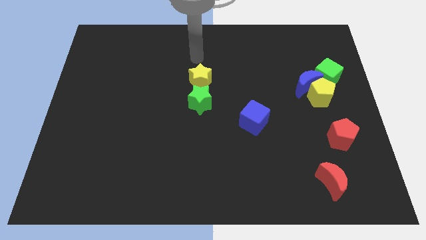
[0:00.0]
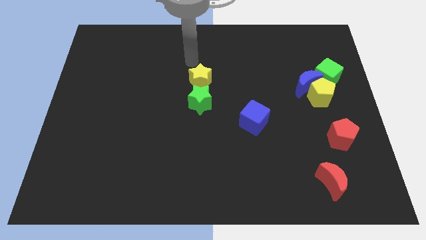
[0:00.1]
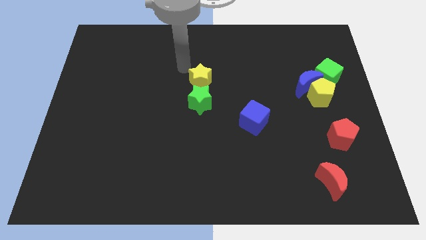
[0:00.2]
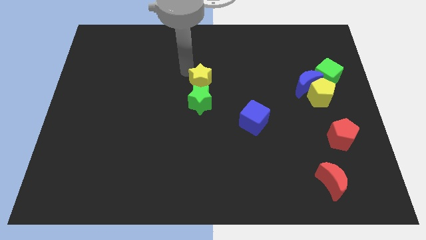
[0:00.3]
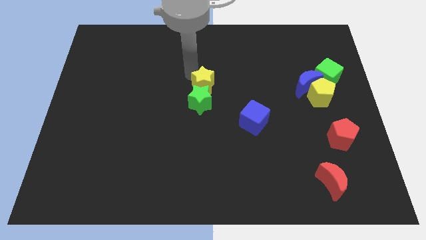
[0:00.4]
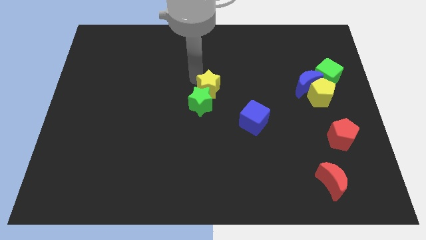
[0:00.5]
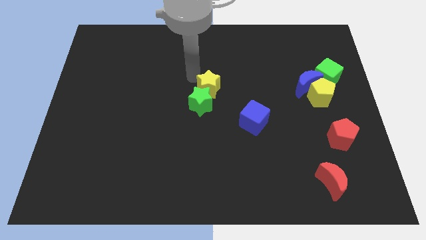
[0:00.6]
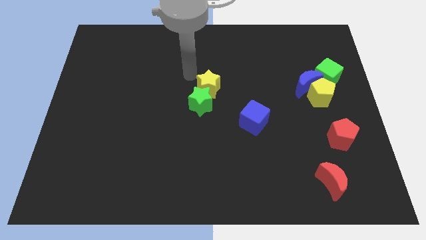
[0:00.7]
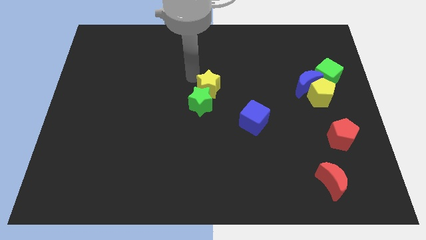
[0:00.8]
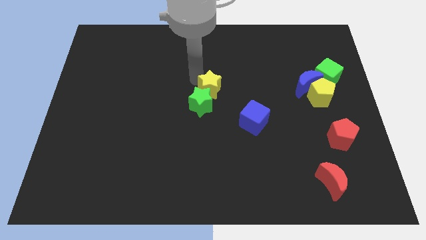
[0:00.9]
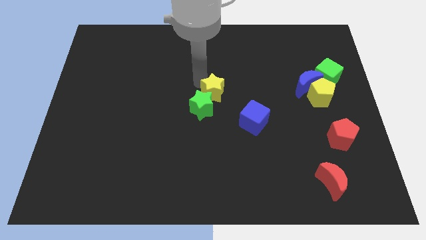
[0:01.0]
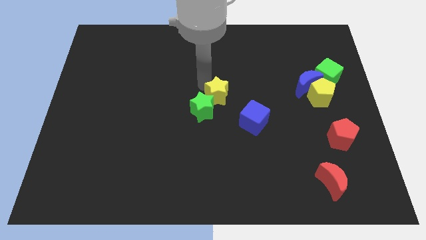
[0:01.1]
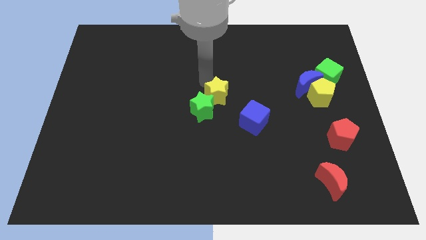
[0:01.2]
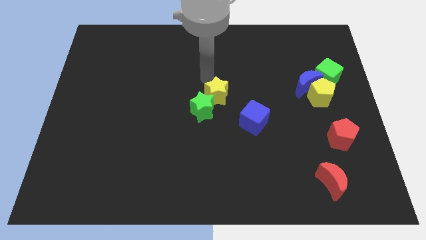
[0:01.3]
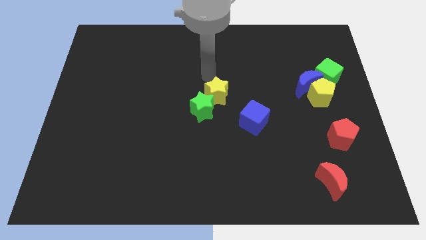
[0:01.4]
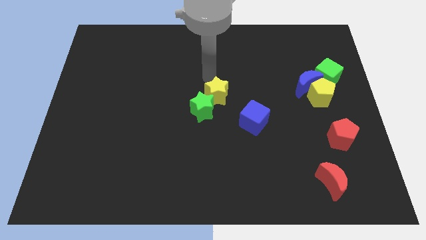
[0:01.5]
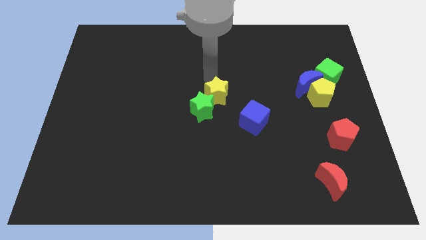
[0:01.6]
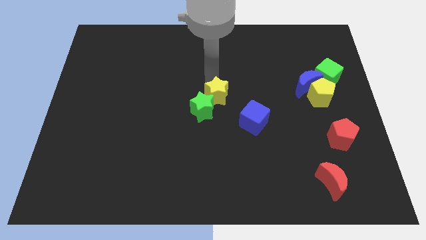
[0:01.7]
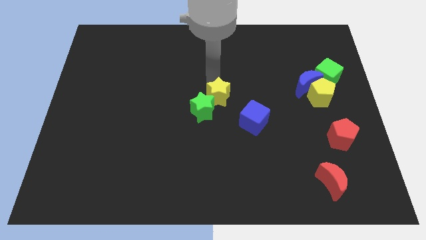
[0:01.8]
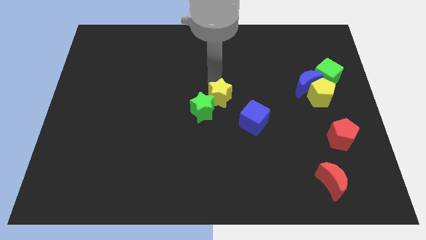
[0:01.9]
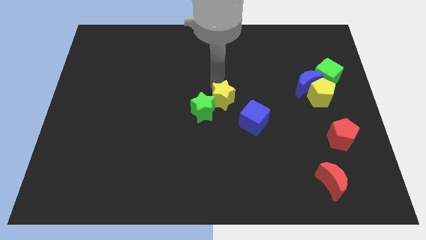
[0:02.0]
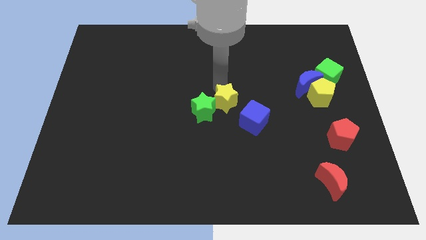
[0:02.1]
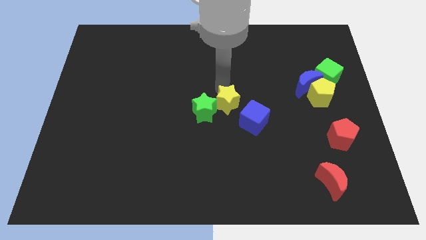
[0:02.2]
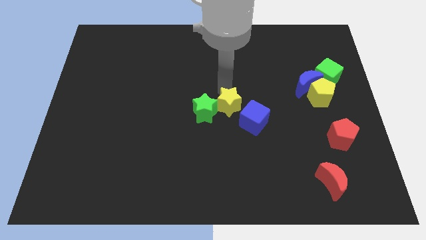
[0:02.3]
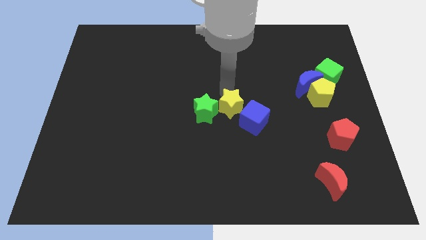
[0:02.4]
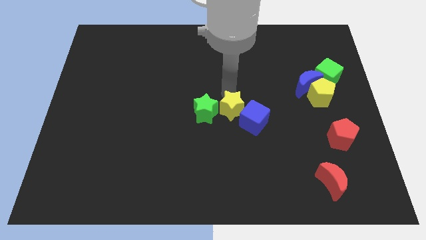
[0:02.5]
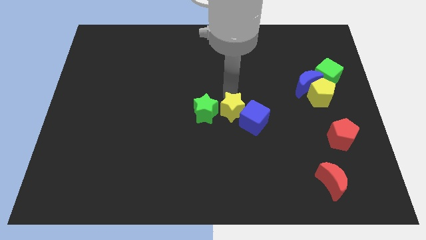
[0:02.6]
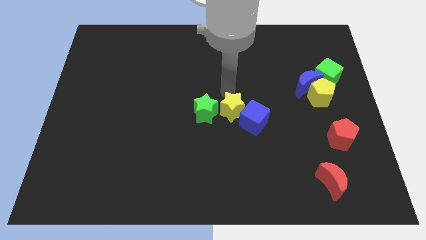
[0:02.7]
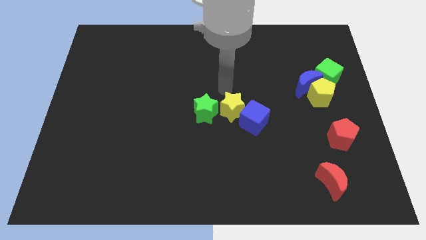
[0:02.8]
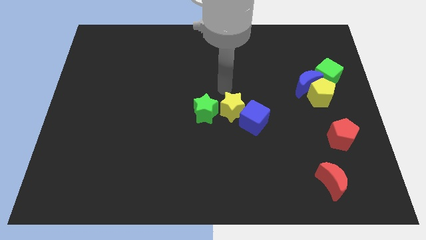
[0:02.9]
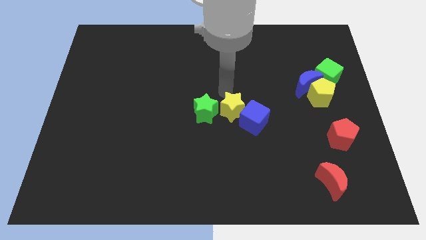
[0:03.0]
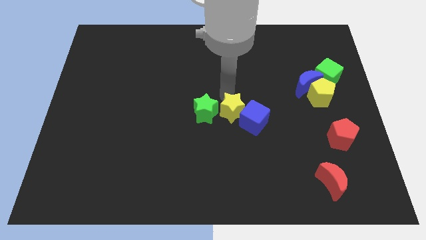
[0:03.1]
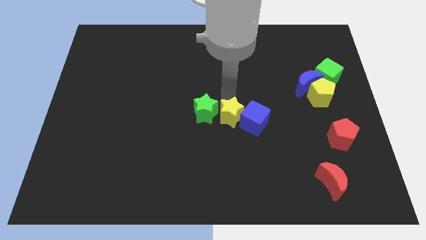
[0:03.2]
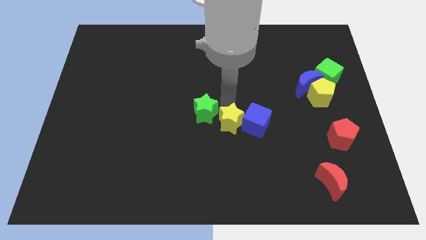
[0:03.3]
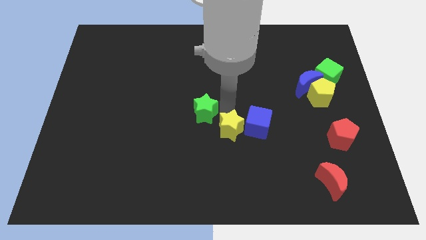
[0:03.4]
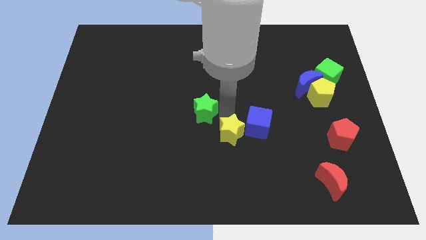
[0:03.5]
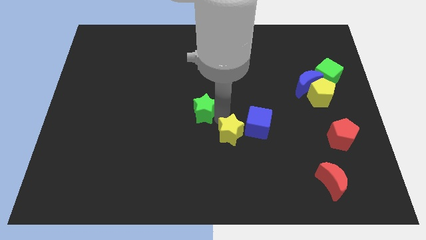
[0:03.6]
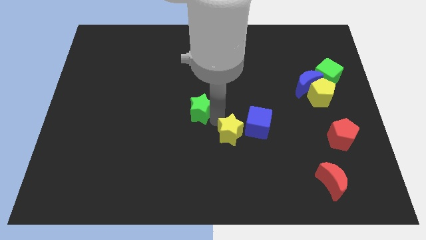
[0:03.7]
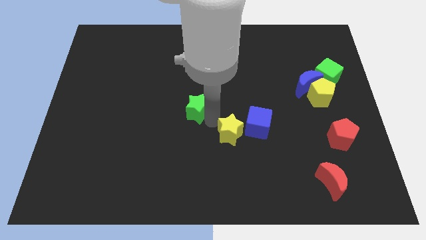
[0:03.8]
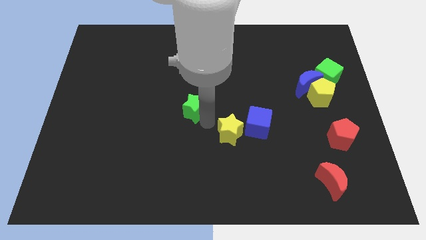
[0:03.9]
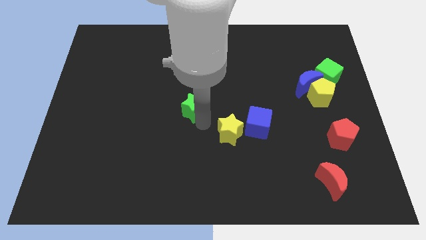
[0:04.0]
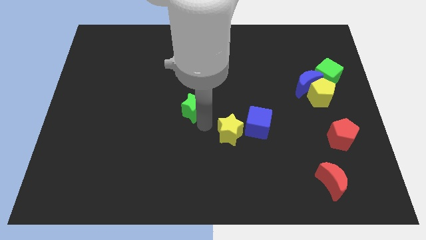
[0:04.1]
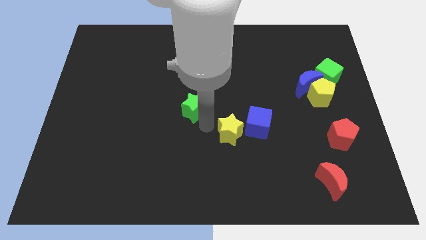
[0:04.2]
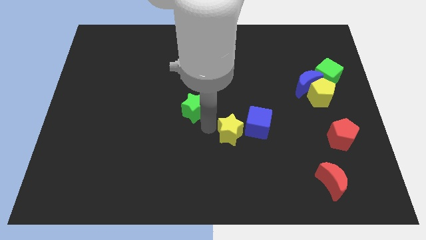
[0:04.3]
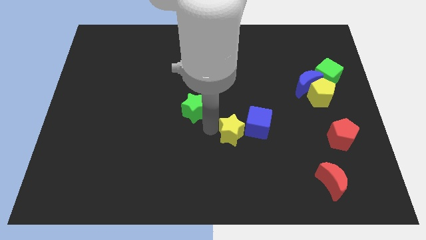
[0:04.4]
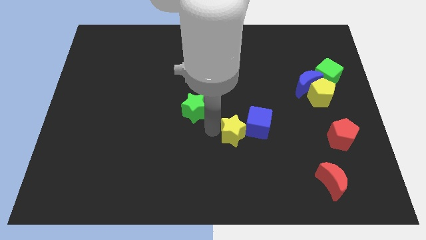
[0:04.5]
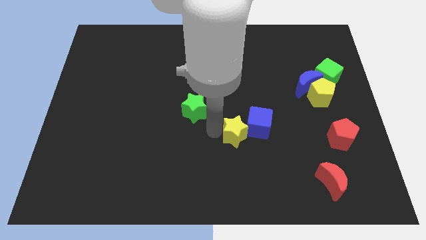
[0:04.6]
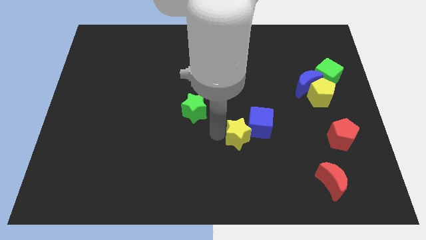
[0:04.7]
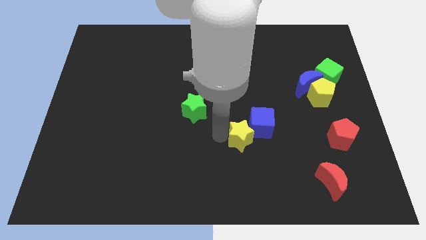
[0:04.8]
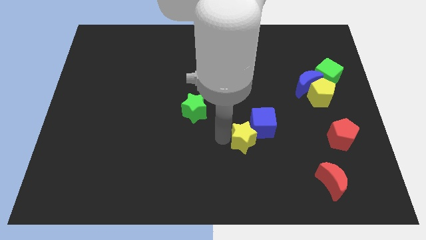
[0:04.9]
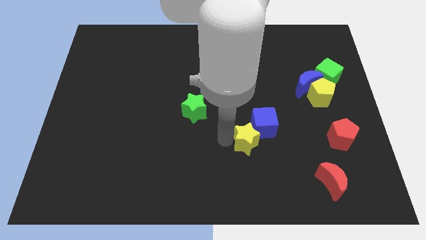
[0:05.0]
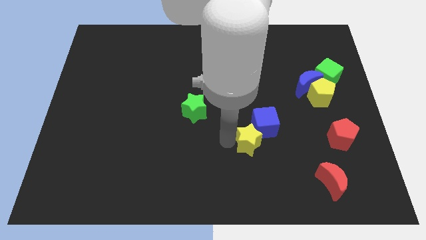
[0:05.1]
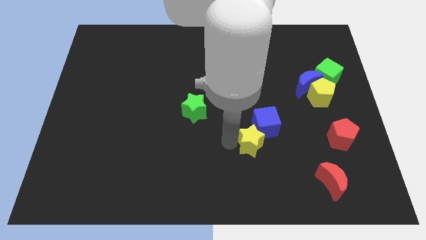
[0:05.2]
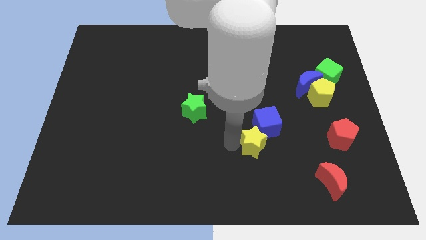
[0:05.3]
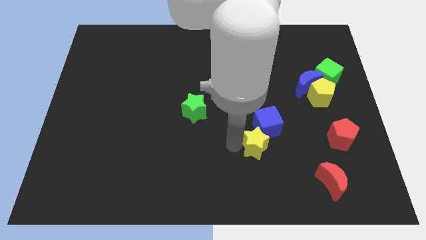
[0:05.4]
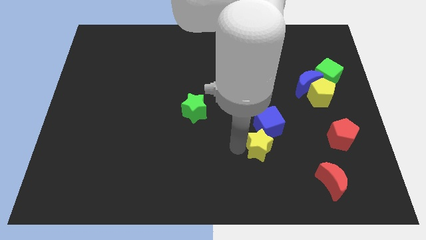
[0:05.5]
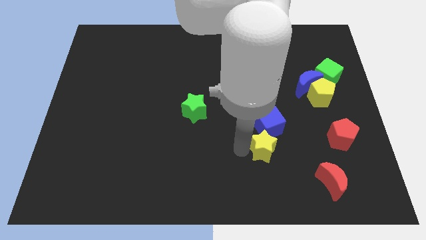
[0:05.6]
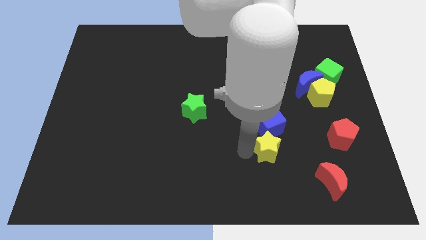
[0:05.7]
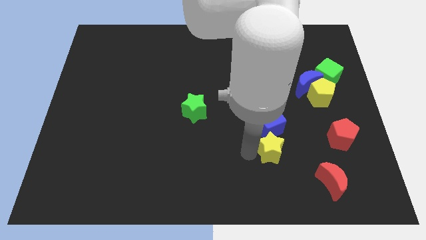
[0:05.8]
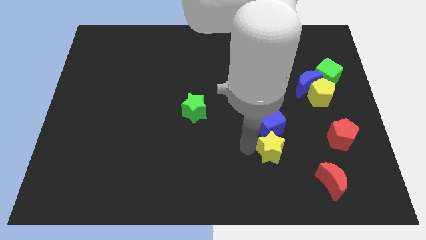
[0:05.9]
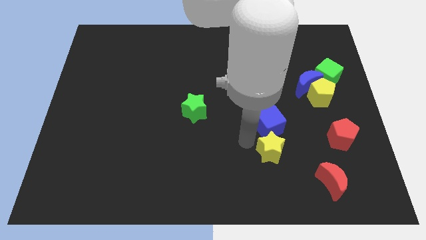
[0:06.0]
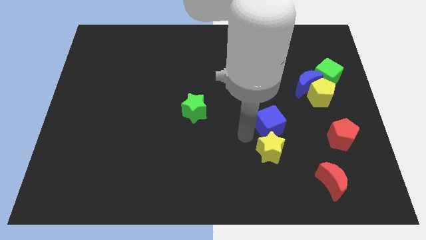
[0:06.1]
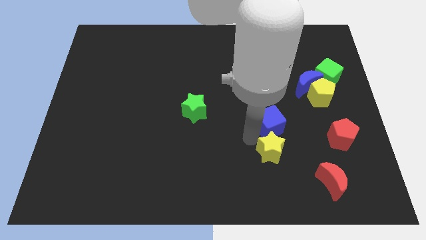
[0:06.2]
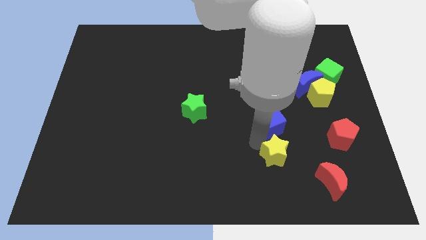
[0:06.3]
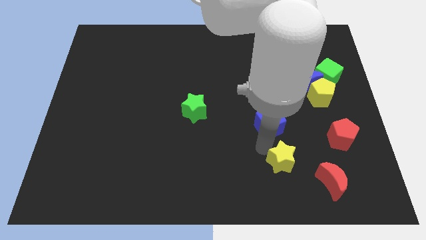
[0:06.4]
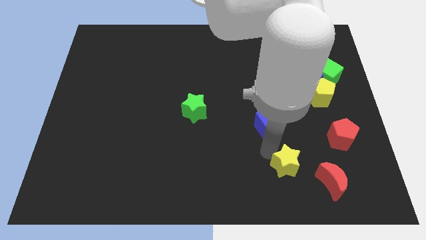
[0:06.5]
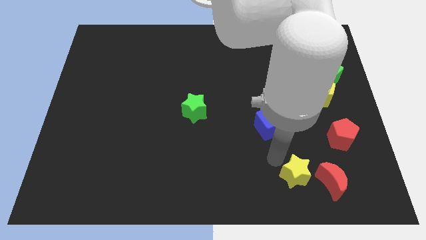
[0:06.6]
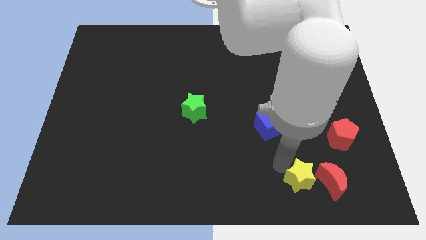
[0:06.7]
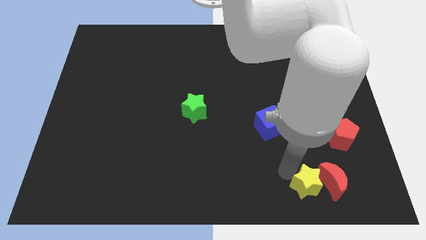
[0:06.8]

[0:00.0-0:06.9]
slide the yellow star to the red moon
